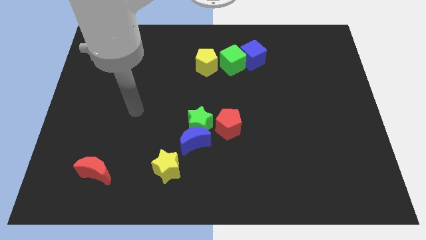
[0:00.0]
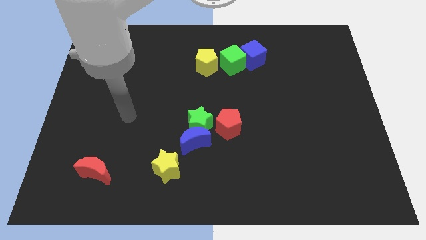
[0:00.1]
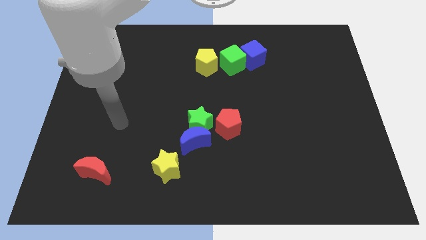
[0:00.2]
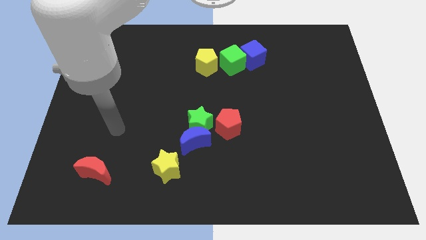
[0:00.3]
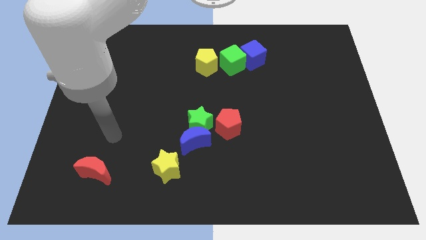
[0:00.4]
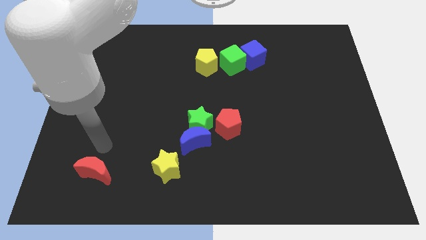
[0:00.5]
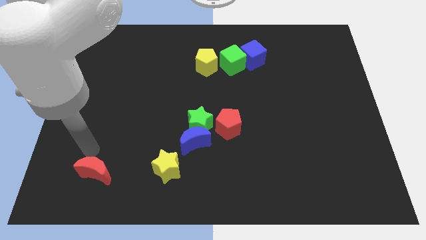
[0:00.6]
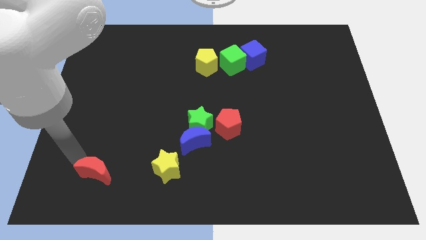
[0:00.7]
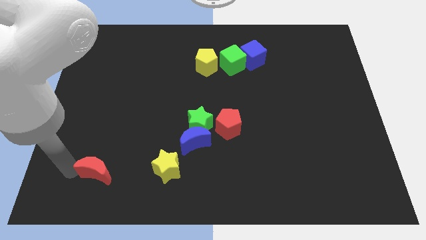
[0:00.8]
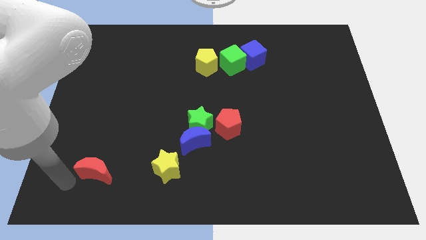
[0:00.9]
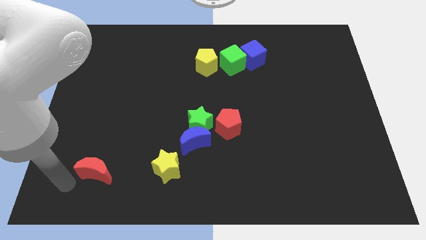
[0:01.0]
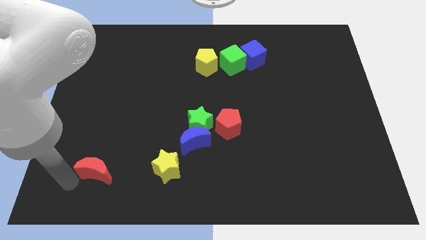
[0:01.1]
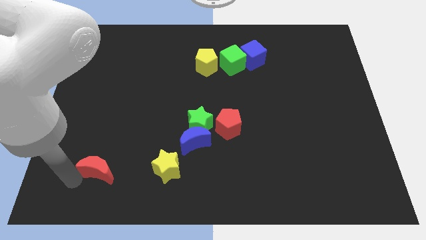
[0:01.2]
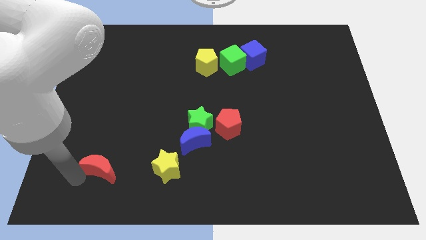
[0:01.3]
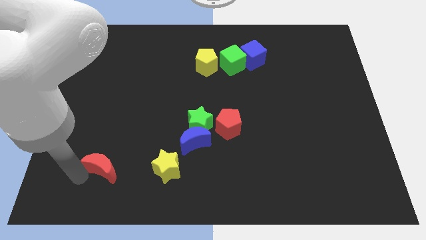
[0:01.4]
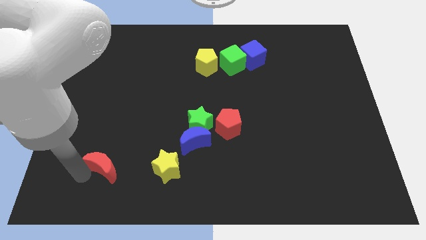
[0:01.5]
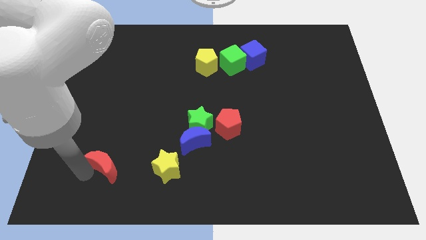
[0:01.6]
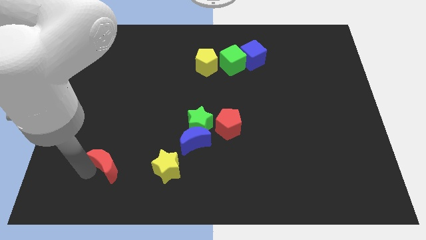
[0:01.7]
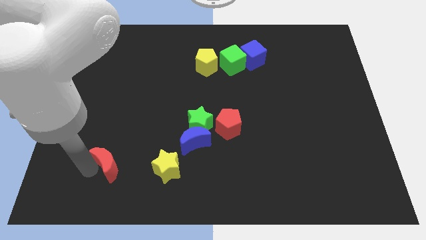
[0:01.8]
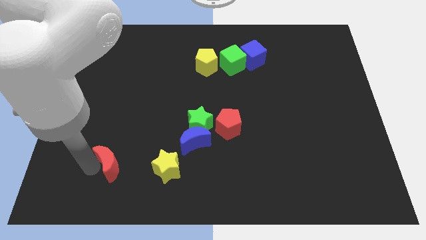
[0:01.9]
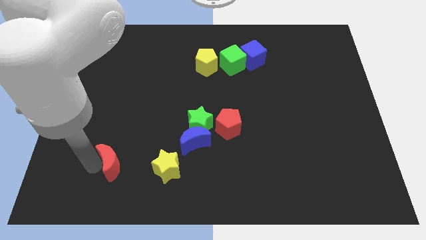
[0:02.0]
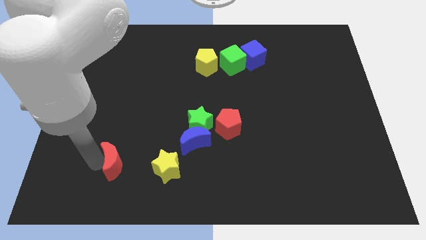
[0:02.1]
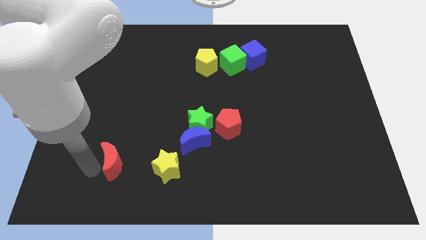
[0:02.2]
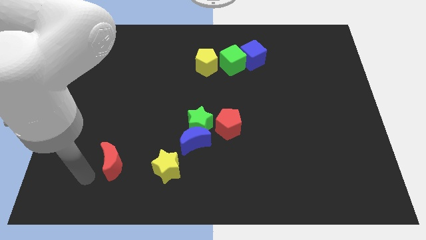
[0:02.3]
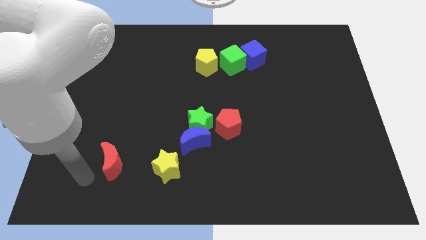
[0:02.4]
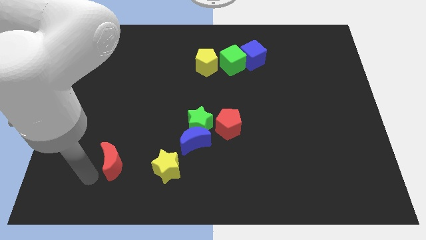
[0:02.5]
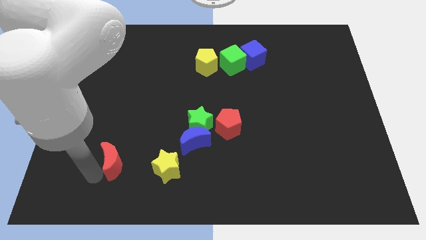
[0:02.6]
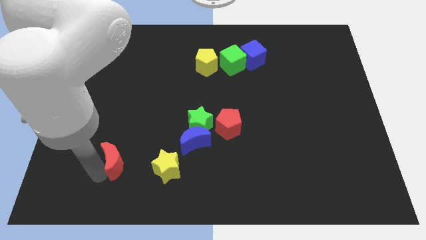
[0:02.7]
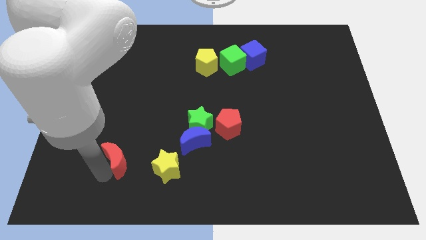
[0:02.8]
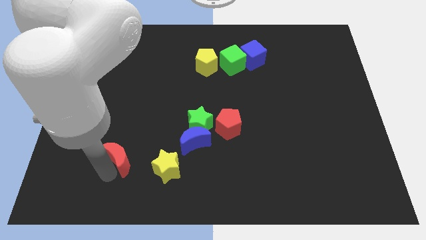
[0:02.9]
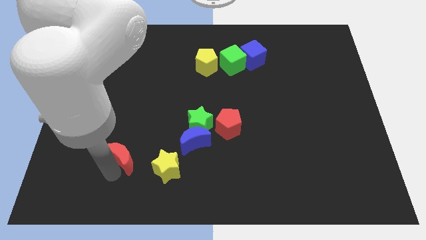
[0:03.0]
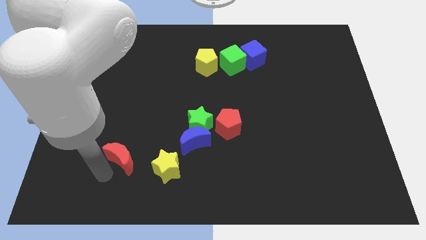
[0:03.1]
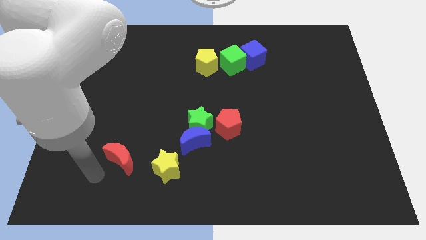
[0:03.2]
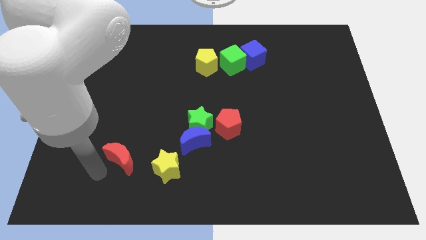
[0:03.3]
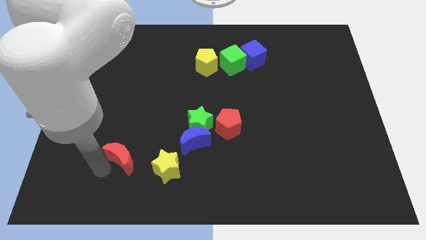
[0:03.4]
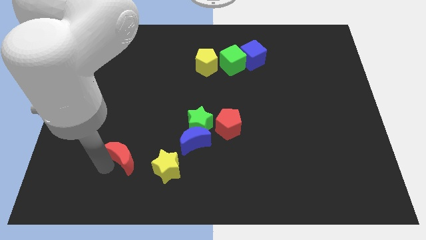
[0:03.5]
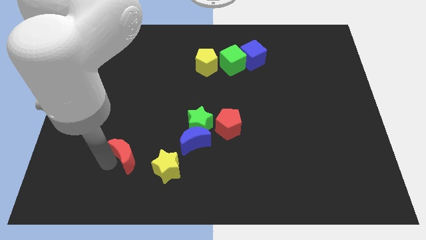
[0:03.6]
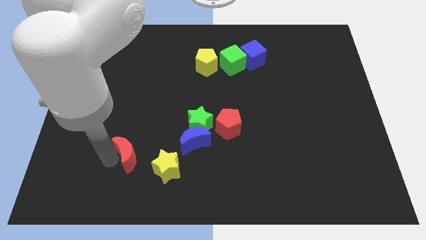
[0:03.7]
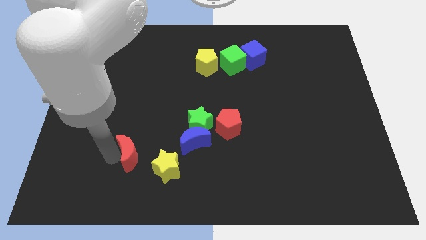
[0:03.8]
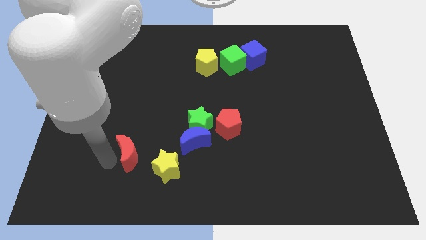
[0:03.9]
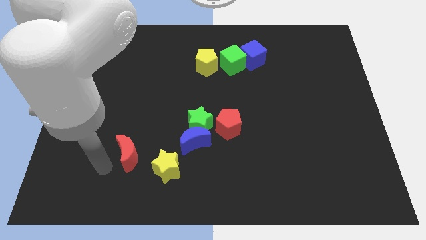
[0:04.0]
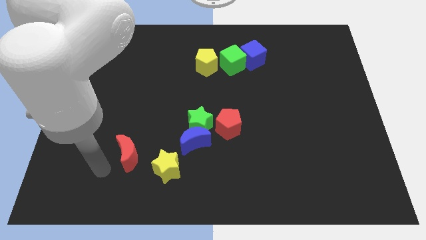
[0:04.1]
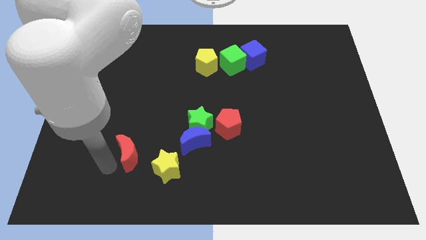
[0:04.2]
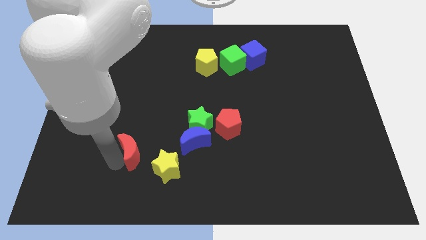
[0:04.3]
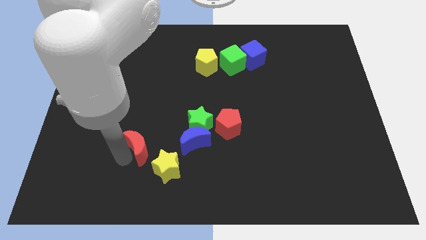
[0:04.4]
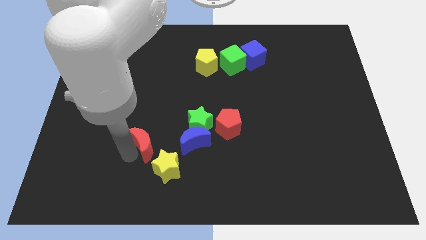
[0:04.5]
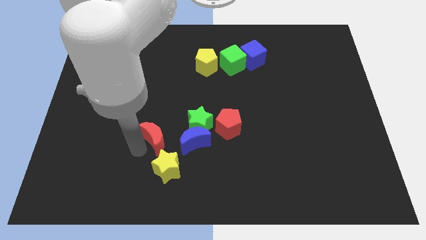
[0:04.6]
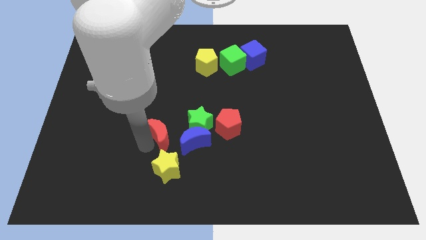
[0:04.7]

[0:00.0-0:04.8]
push the red moon just left of the red pentagon

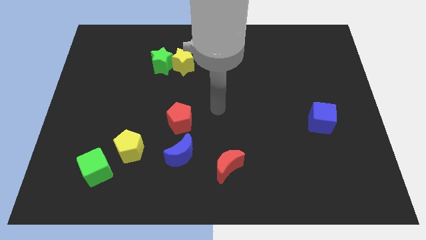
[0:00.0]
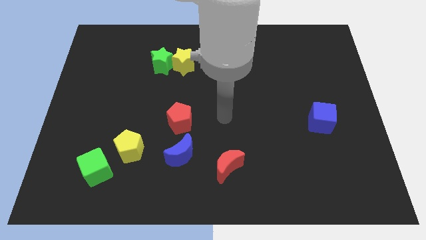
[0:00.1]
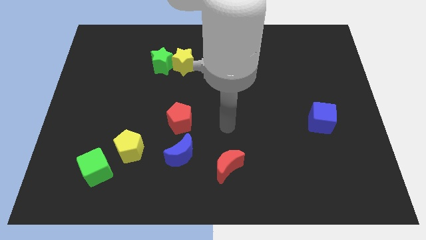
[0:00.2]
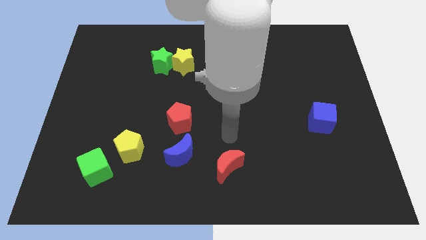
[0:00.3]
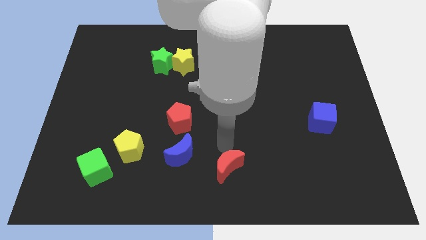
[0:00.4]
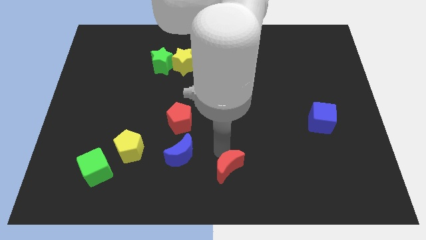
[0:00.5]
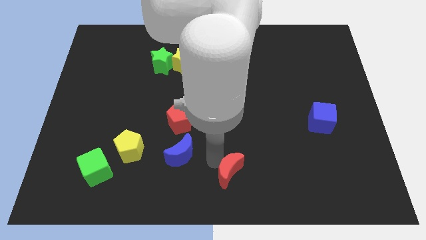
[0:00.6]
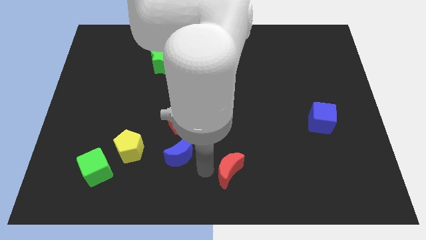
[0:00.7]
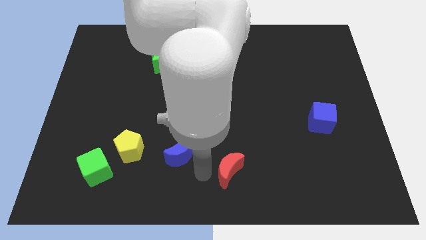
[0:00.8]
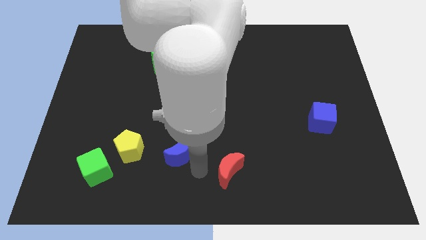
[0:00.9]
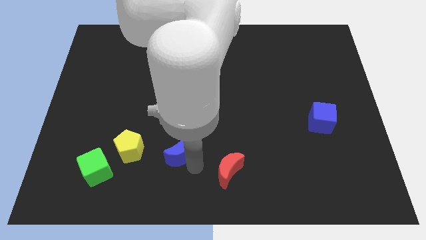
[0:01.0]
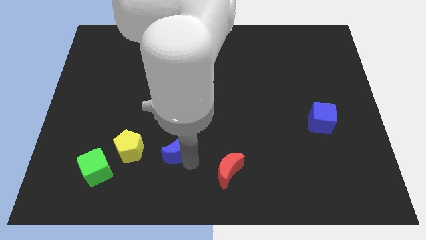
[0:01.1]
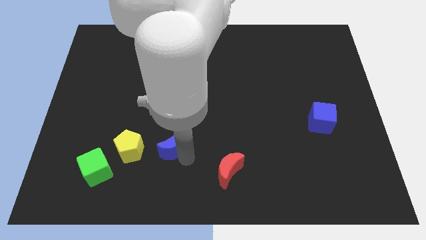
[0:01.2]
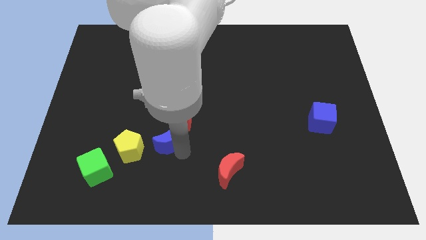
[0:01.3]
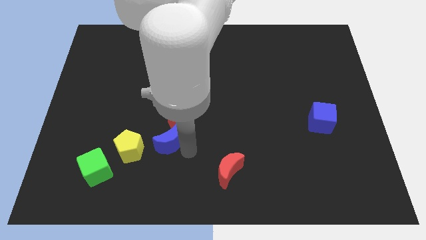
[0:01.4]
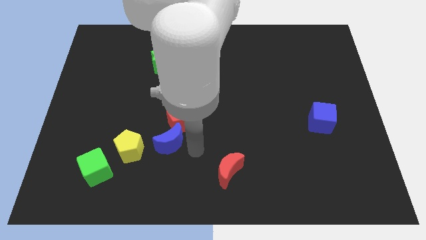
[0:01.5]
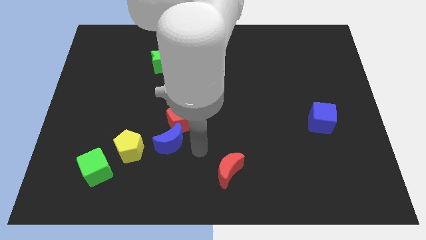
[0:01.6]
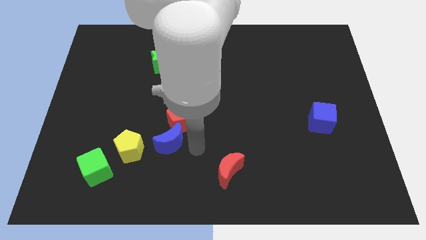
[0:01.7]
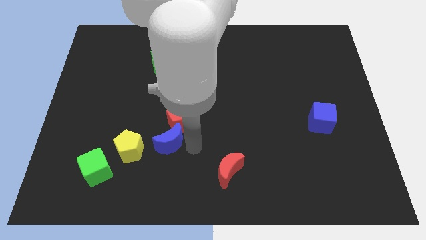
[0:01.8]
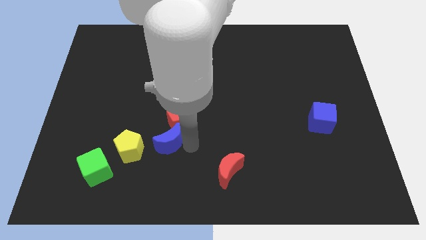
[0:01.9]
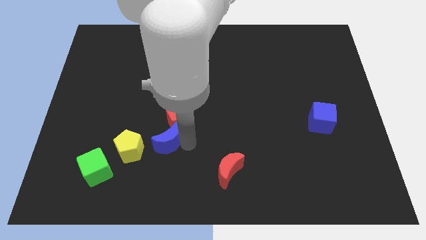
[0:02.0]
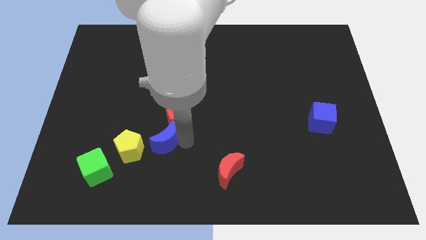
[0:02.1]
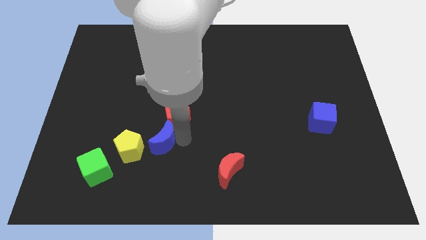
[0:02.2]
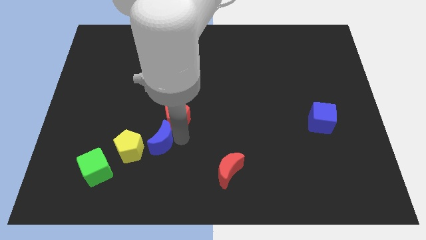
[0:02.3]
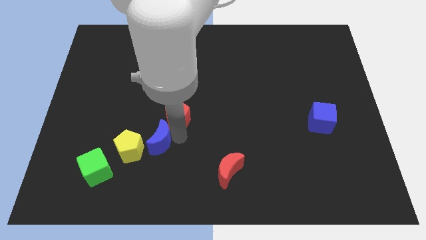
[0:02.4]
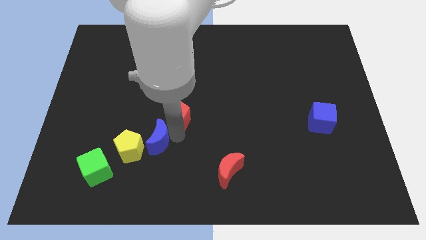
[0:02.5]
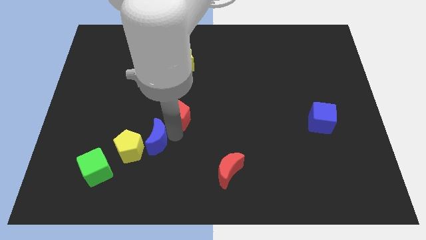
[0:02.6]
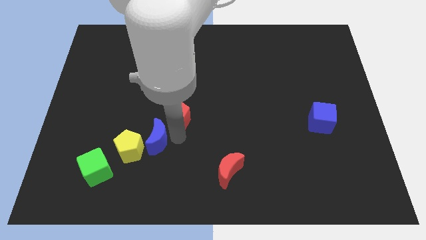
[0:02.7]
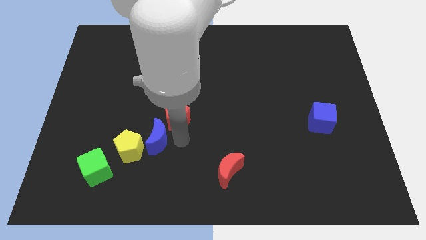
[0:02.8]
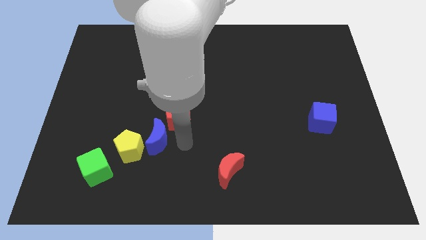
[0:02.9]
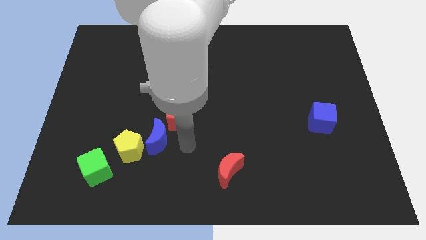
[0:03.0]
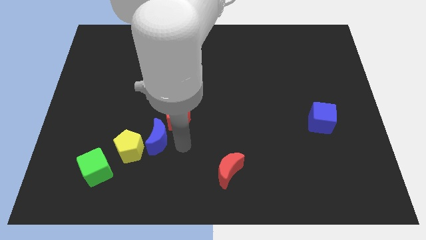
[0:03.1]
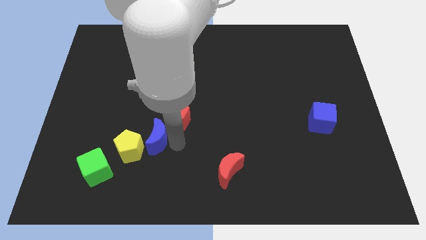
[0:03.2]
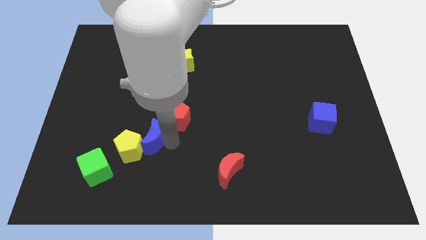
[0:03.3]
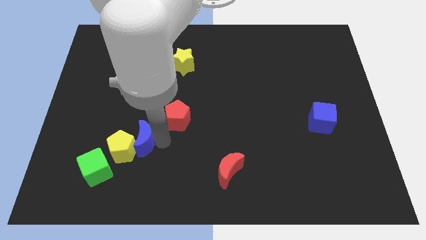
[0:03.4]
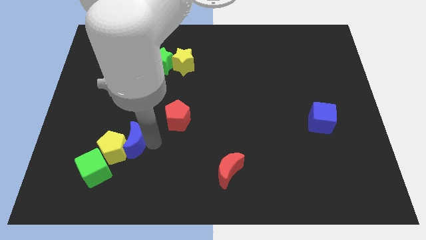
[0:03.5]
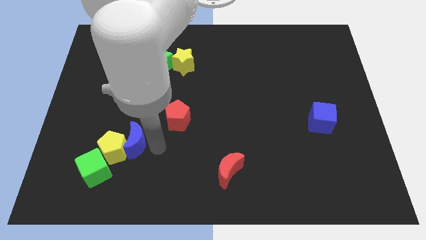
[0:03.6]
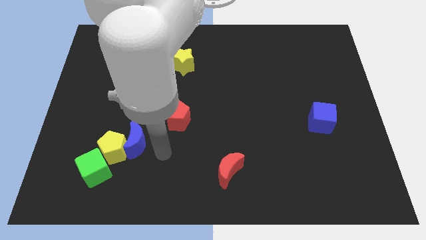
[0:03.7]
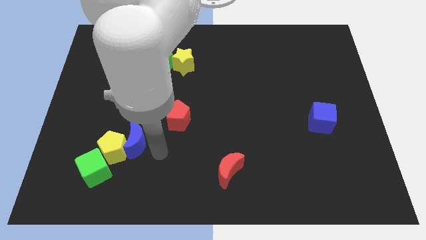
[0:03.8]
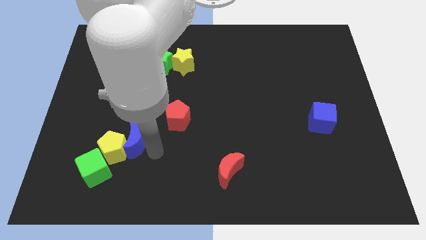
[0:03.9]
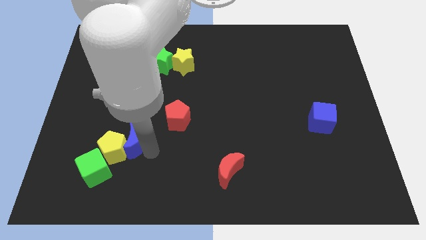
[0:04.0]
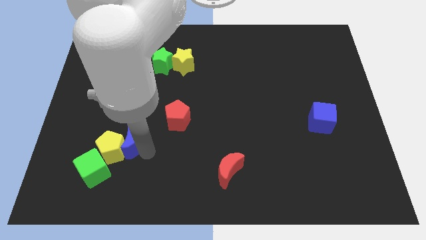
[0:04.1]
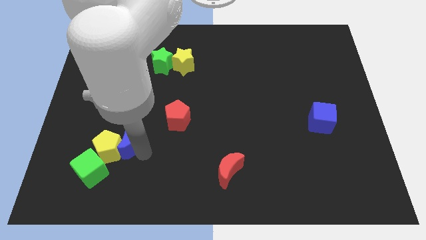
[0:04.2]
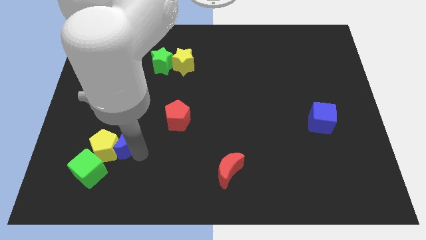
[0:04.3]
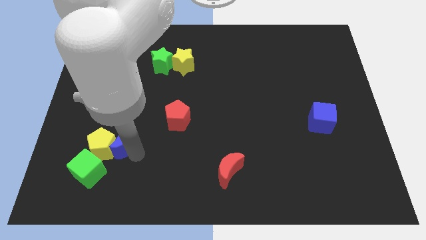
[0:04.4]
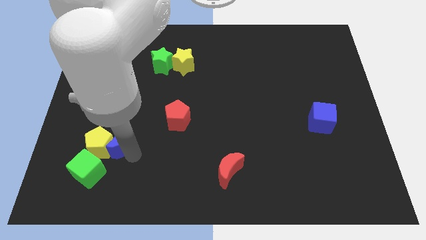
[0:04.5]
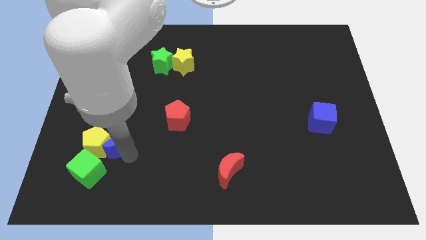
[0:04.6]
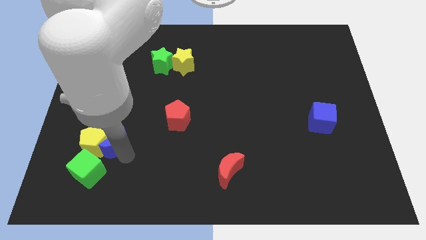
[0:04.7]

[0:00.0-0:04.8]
put the blue moon above the green cube
